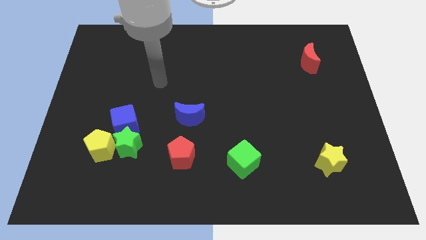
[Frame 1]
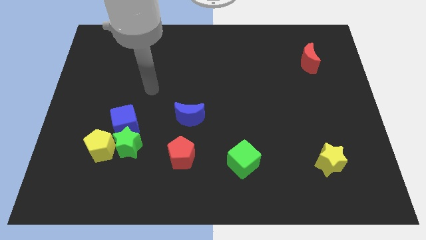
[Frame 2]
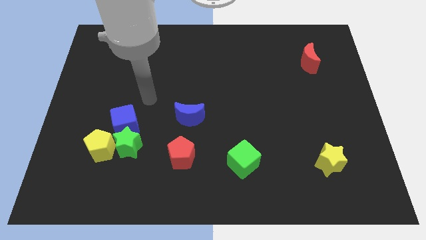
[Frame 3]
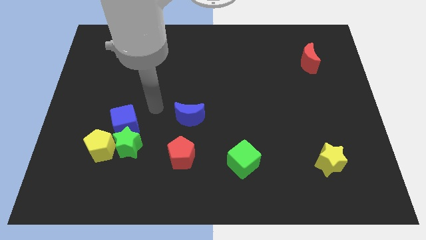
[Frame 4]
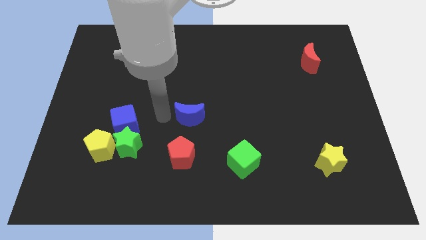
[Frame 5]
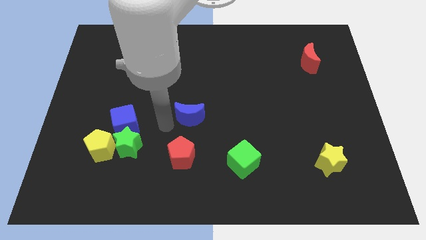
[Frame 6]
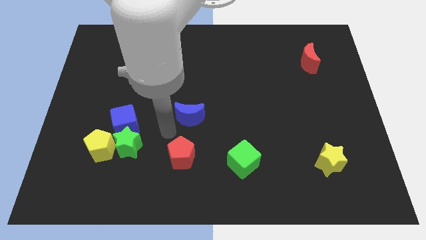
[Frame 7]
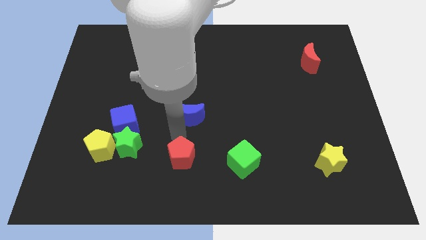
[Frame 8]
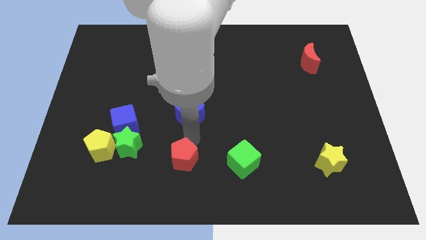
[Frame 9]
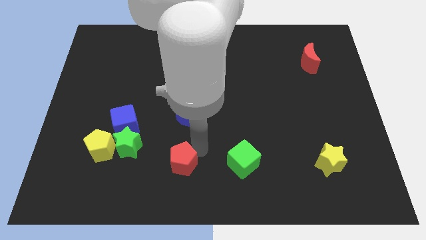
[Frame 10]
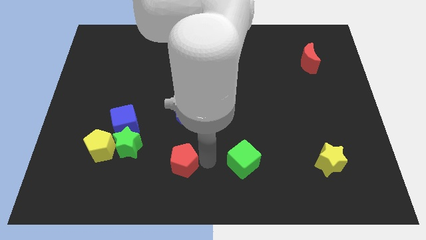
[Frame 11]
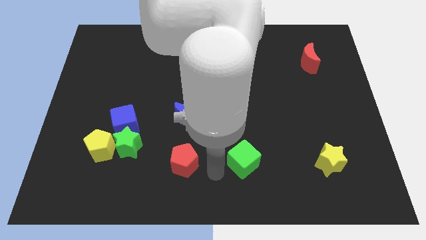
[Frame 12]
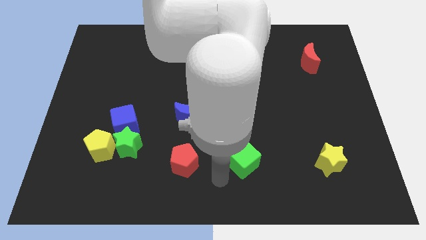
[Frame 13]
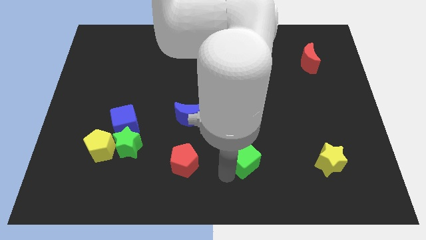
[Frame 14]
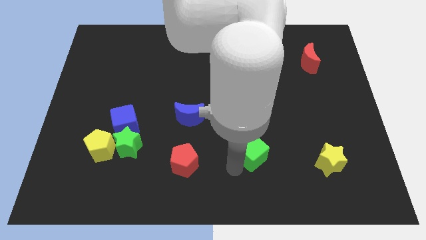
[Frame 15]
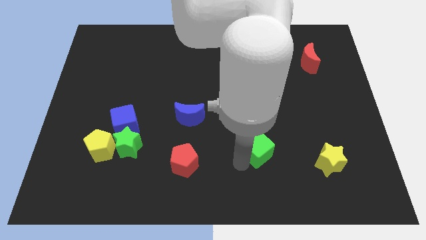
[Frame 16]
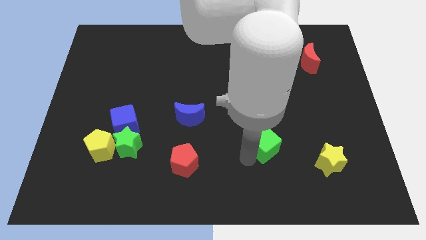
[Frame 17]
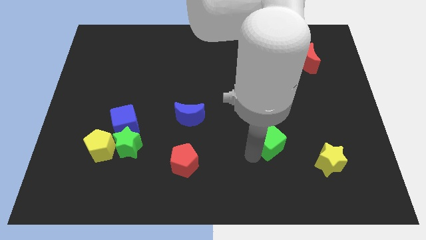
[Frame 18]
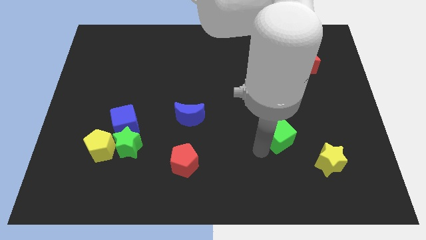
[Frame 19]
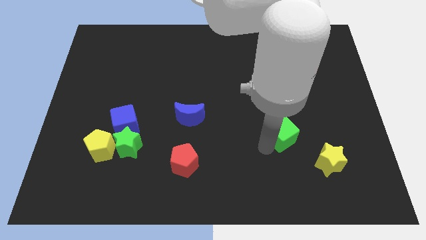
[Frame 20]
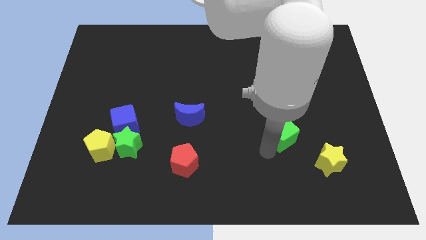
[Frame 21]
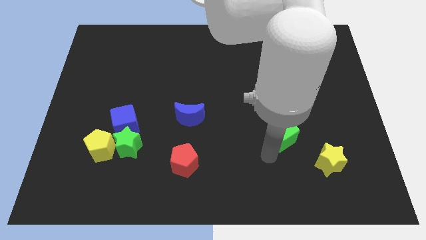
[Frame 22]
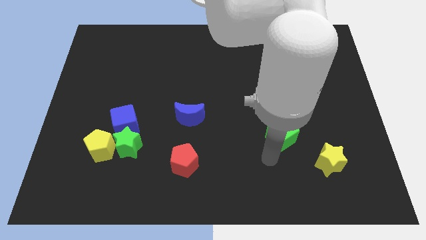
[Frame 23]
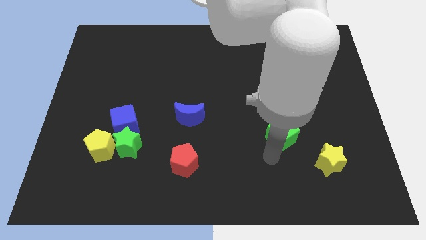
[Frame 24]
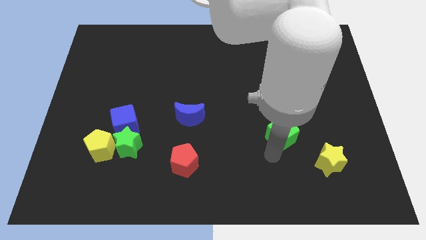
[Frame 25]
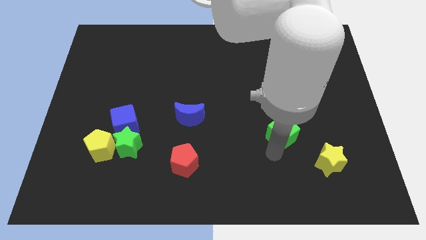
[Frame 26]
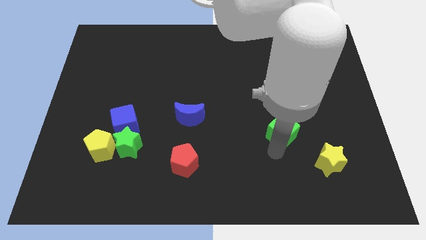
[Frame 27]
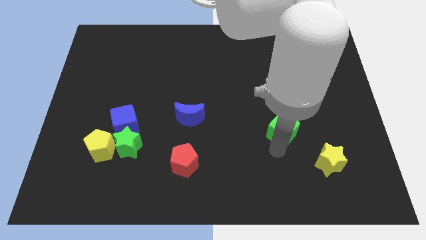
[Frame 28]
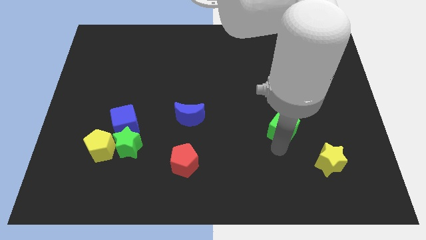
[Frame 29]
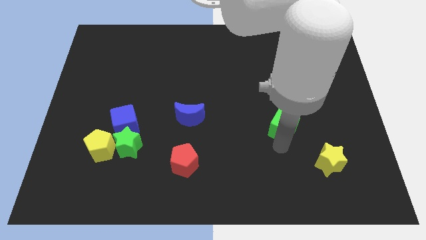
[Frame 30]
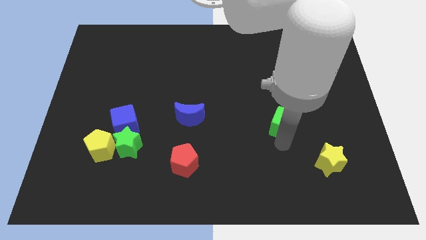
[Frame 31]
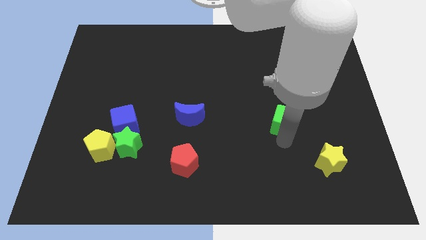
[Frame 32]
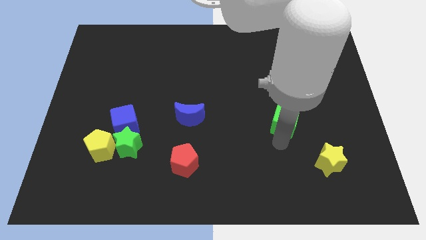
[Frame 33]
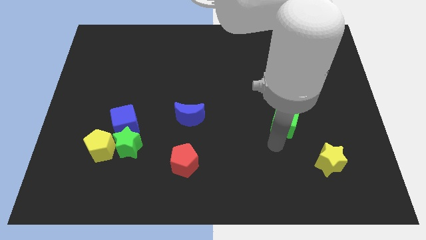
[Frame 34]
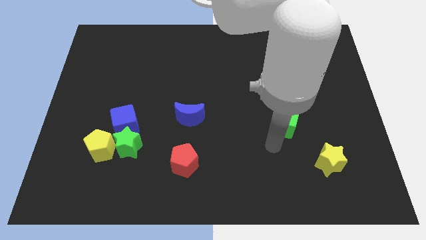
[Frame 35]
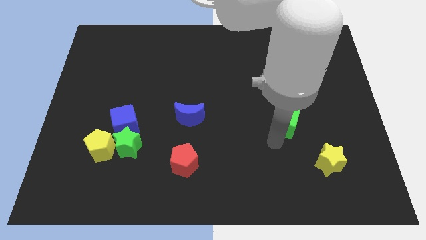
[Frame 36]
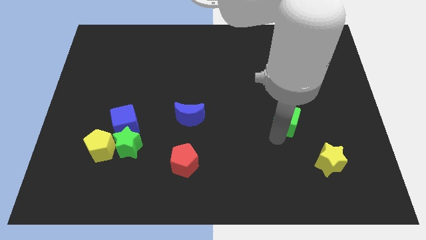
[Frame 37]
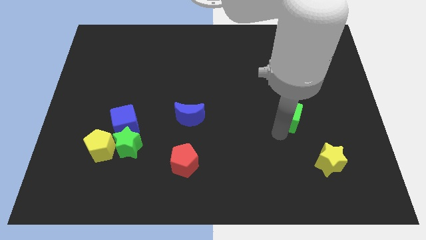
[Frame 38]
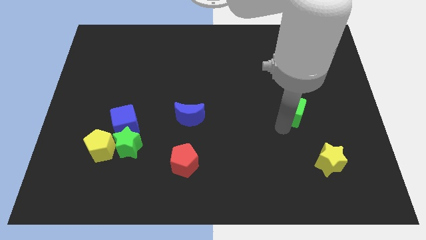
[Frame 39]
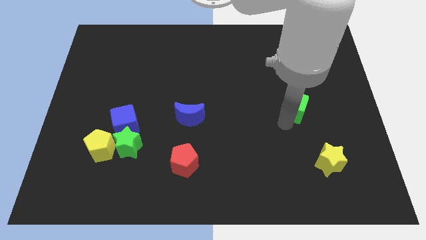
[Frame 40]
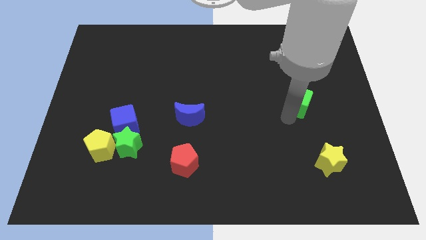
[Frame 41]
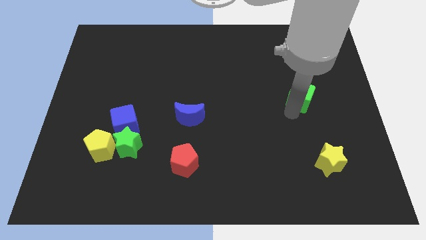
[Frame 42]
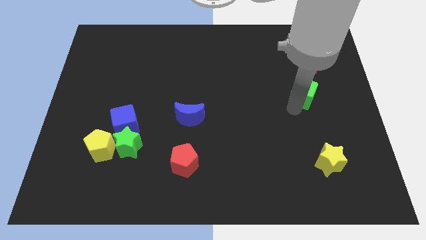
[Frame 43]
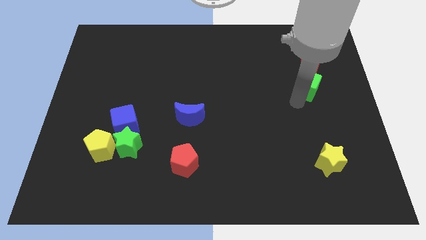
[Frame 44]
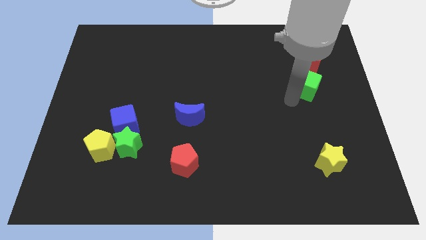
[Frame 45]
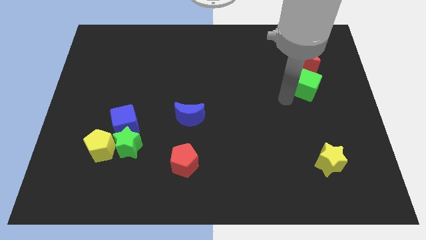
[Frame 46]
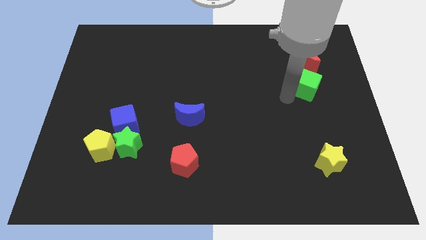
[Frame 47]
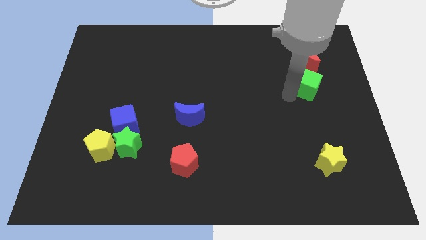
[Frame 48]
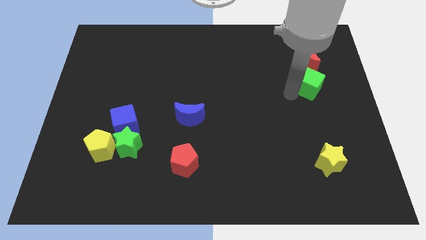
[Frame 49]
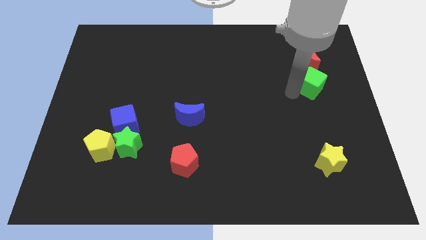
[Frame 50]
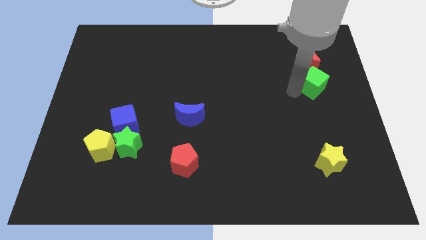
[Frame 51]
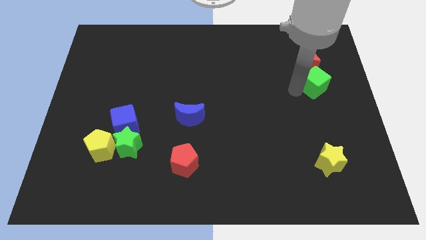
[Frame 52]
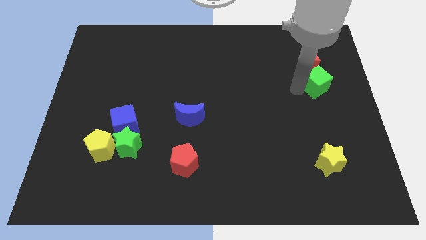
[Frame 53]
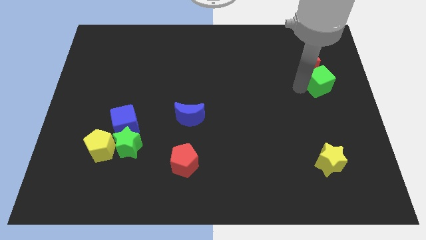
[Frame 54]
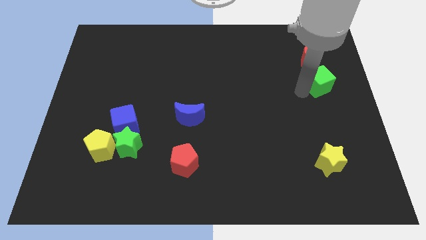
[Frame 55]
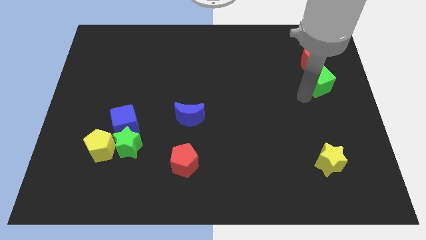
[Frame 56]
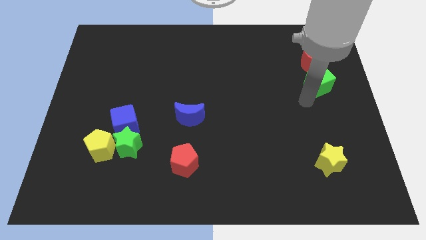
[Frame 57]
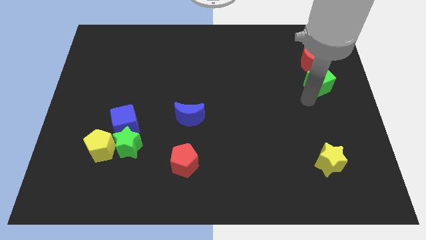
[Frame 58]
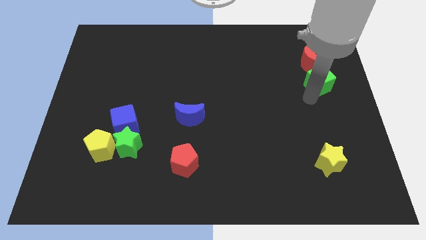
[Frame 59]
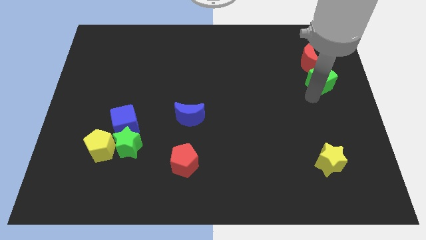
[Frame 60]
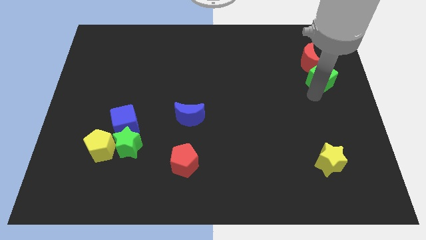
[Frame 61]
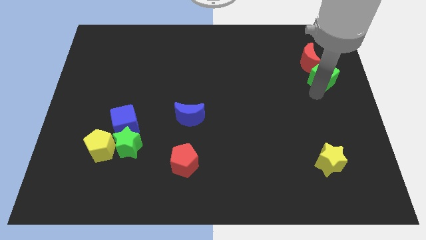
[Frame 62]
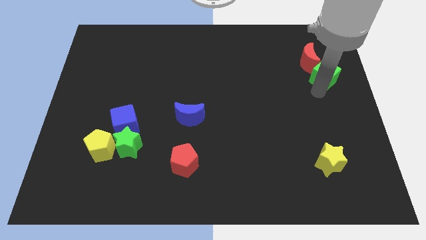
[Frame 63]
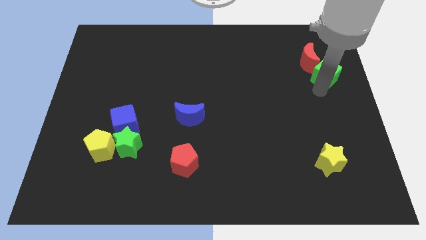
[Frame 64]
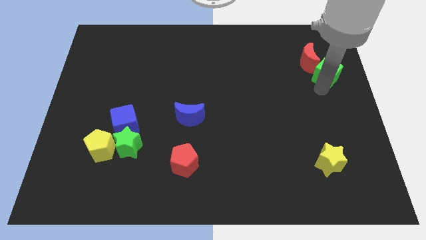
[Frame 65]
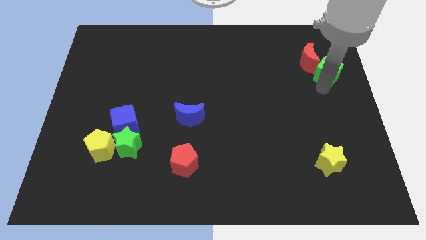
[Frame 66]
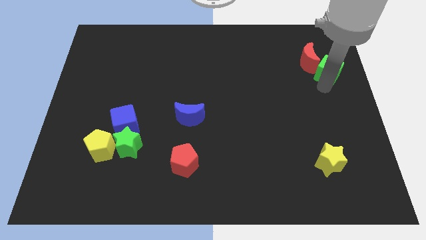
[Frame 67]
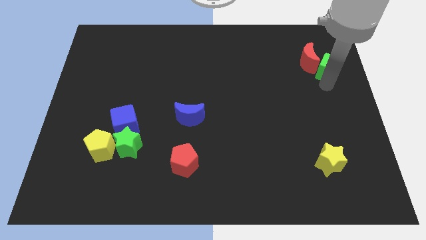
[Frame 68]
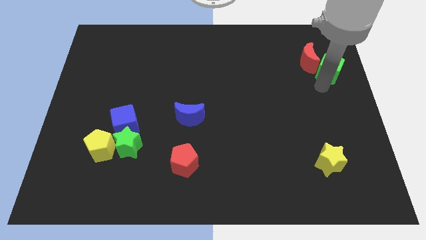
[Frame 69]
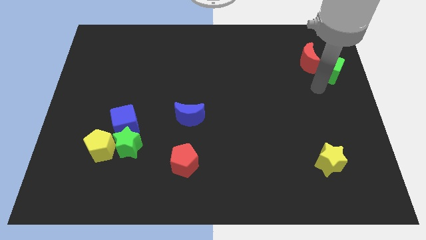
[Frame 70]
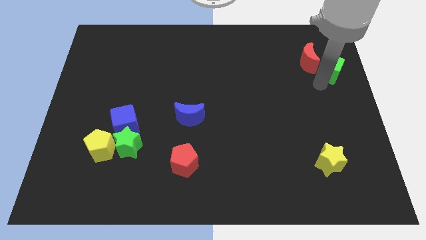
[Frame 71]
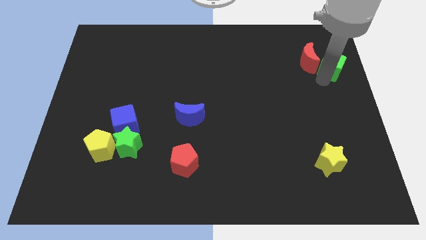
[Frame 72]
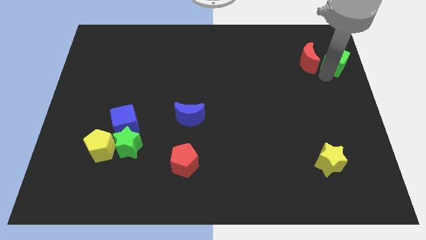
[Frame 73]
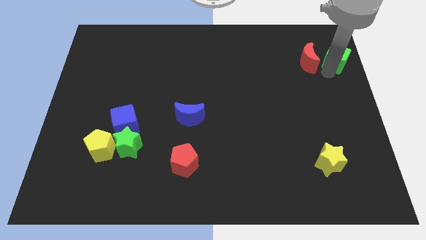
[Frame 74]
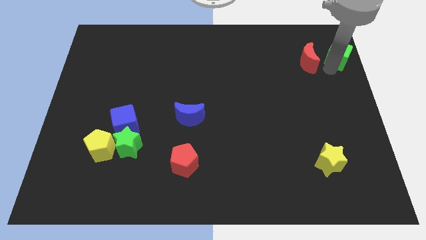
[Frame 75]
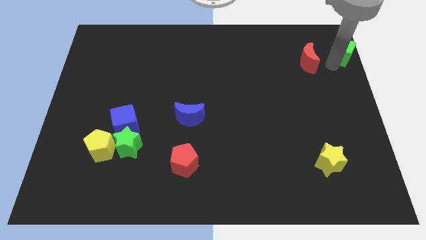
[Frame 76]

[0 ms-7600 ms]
move the green cube to the top right
